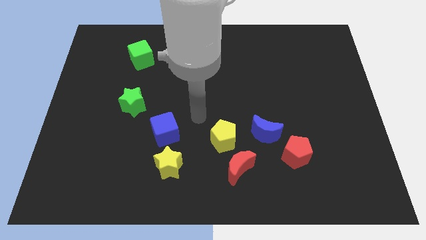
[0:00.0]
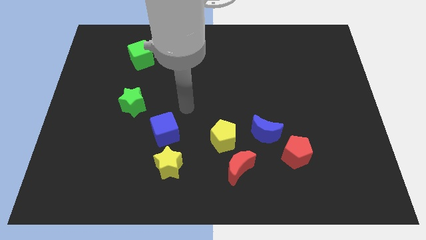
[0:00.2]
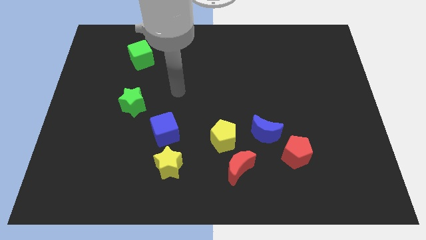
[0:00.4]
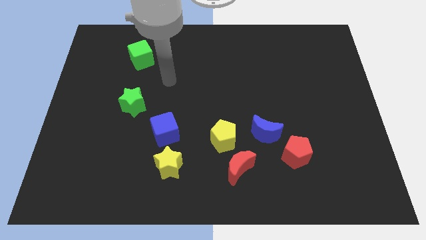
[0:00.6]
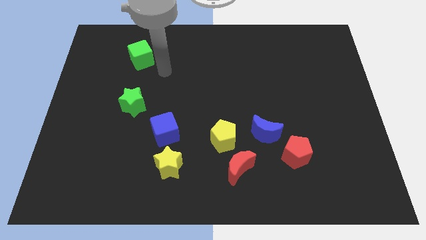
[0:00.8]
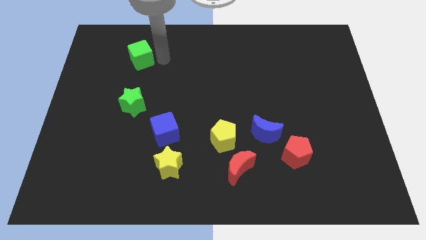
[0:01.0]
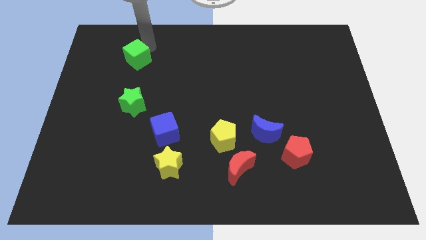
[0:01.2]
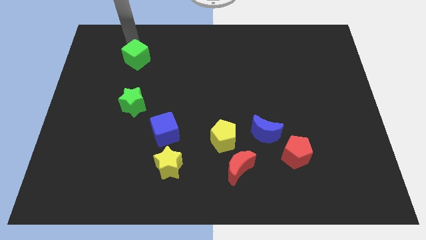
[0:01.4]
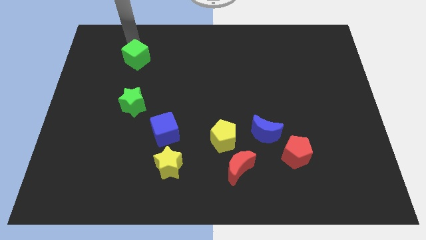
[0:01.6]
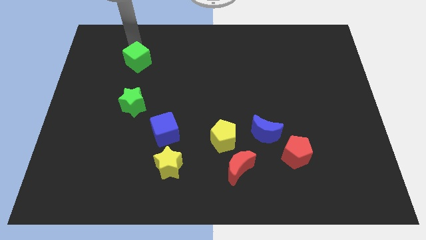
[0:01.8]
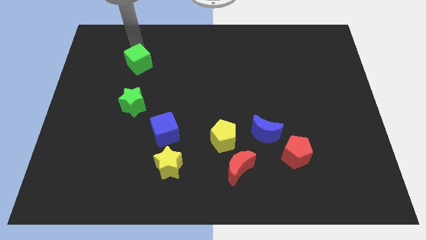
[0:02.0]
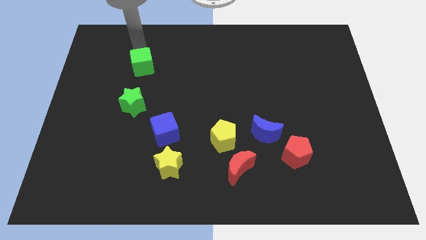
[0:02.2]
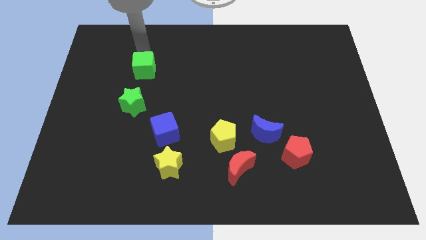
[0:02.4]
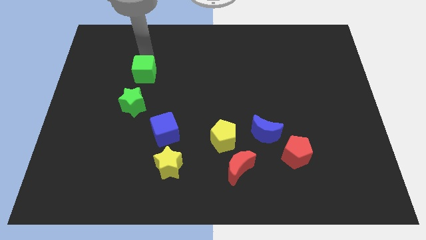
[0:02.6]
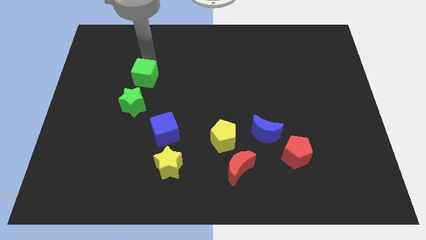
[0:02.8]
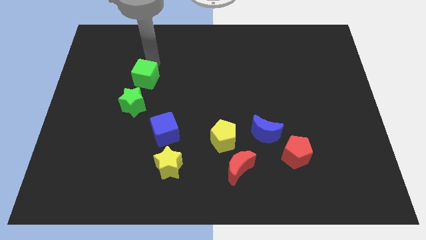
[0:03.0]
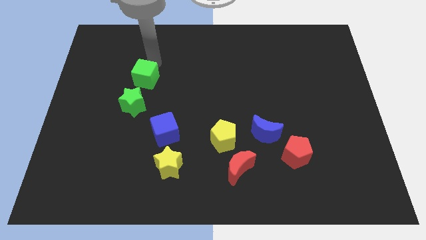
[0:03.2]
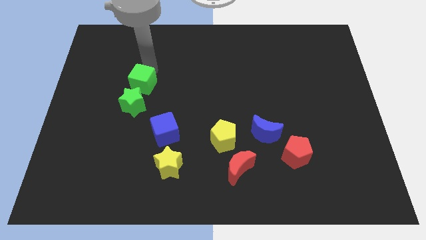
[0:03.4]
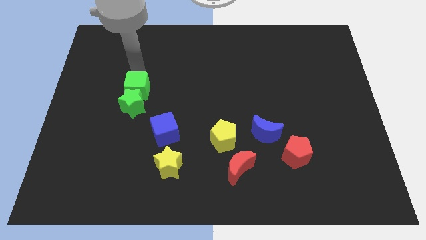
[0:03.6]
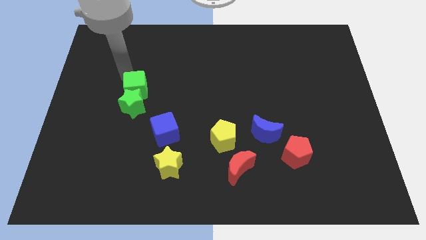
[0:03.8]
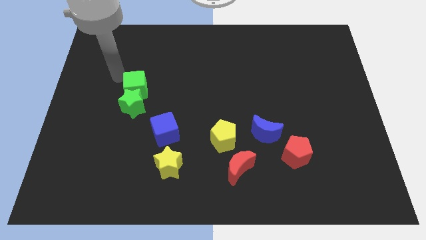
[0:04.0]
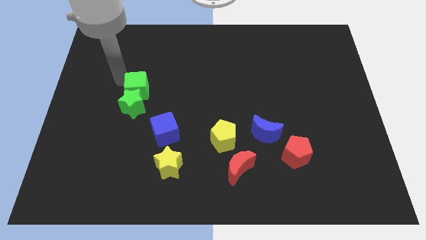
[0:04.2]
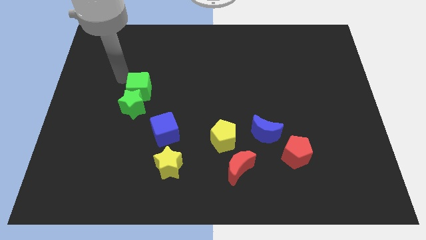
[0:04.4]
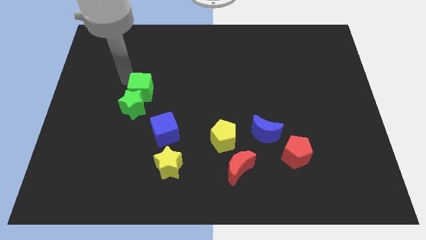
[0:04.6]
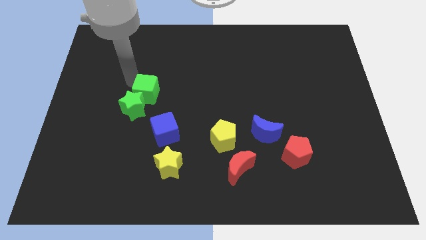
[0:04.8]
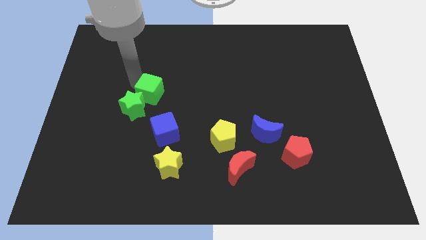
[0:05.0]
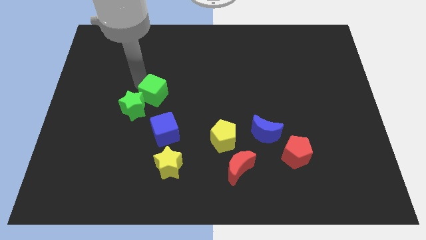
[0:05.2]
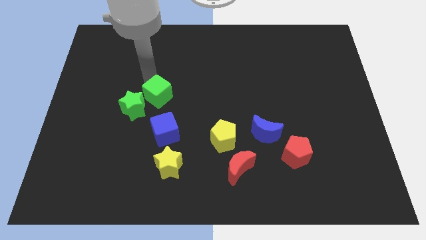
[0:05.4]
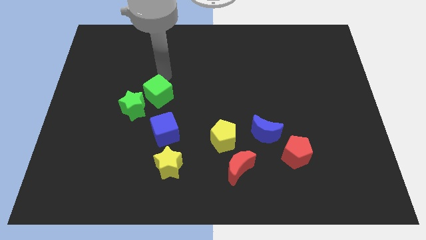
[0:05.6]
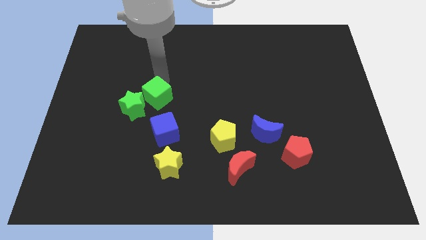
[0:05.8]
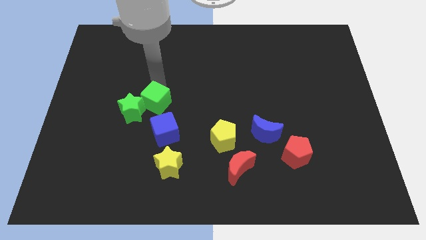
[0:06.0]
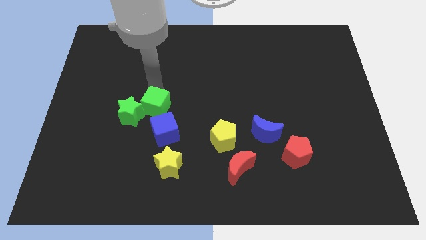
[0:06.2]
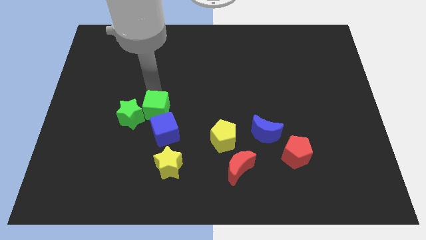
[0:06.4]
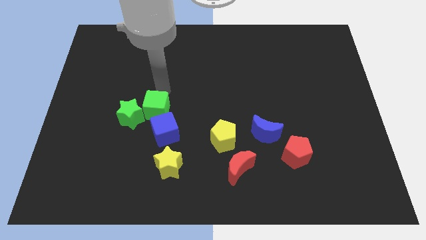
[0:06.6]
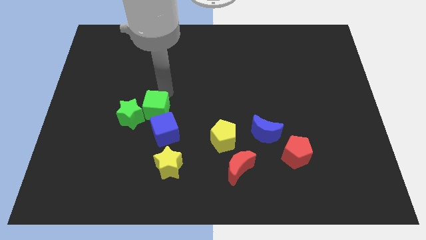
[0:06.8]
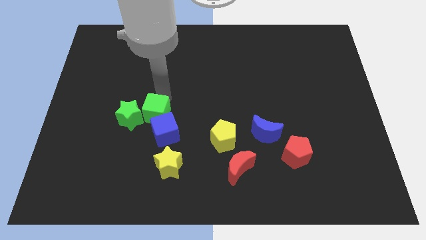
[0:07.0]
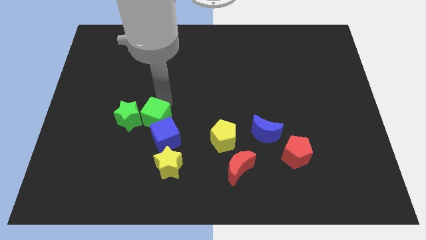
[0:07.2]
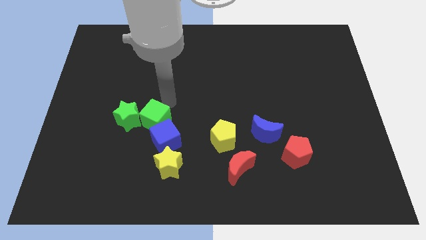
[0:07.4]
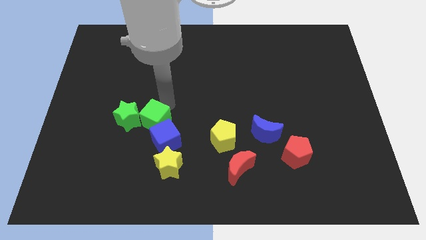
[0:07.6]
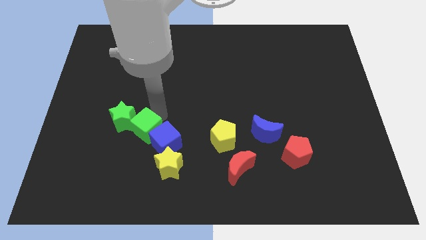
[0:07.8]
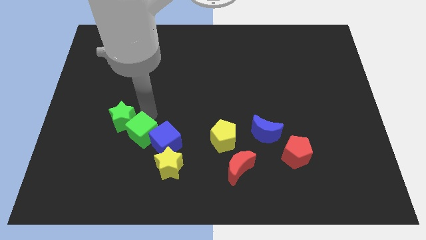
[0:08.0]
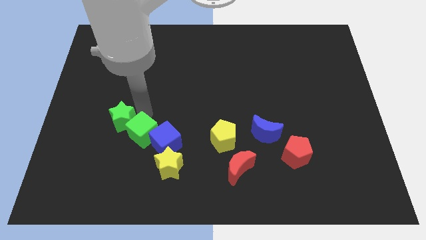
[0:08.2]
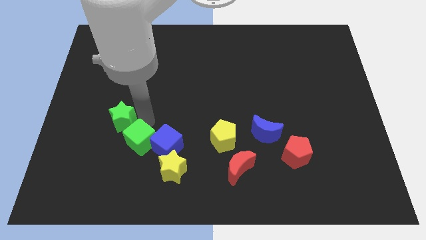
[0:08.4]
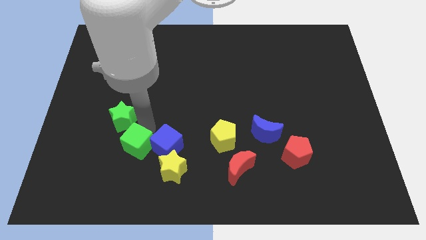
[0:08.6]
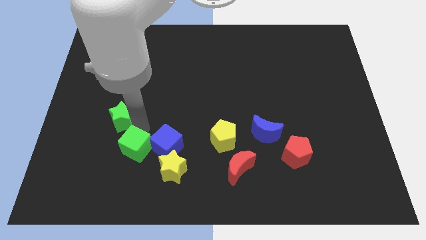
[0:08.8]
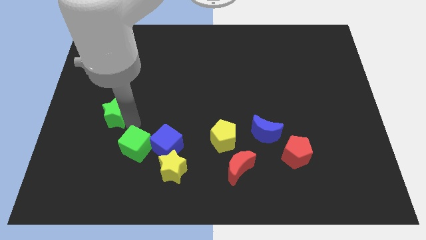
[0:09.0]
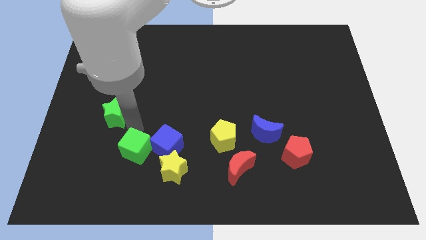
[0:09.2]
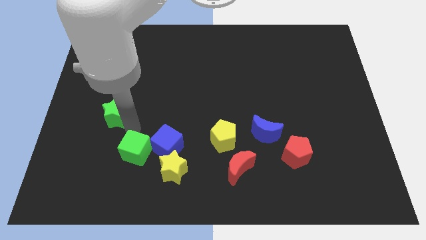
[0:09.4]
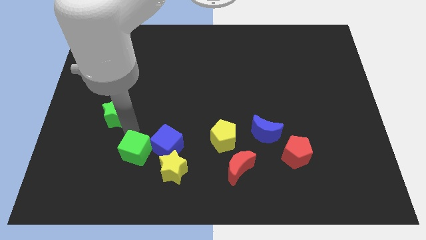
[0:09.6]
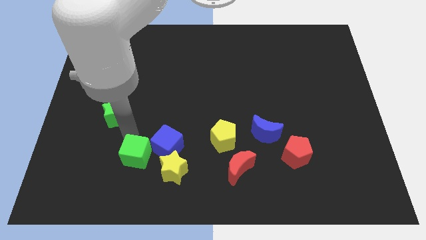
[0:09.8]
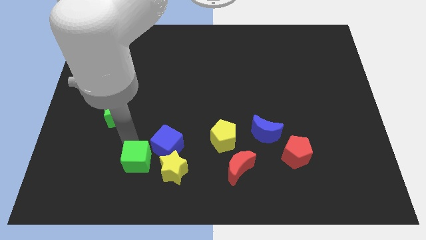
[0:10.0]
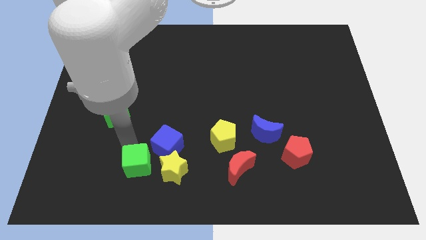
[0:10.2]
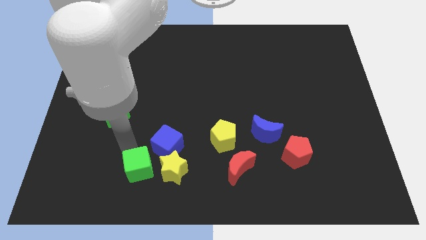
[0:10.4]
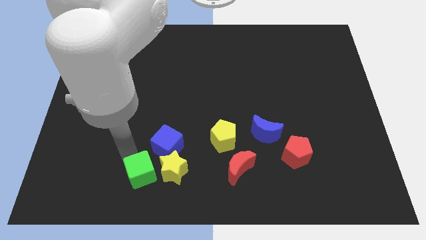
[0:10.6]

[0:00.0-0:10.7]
move the green cube to the bottom of the blue cube
